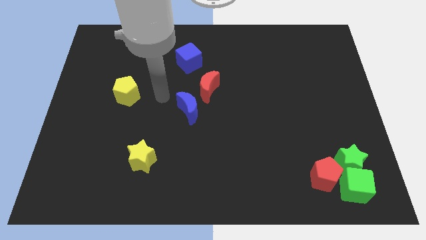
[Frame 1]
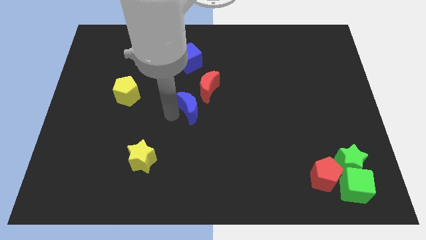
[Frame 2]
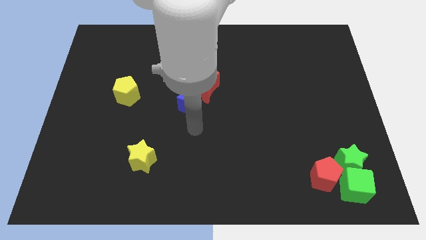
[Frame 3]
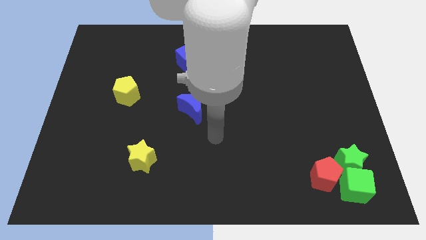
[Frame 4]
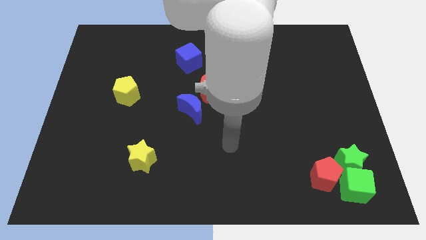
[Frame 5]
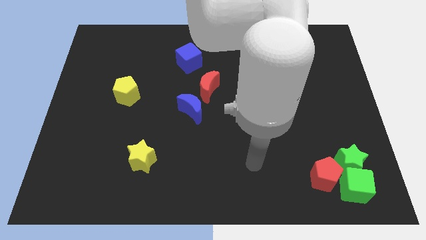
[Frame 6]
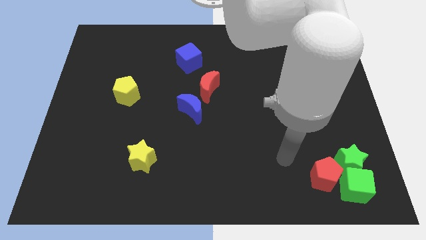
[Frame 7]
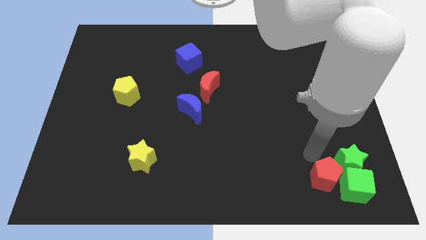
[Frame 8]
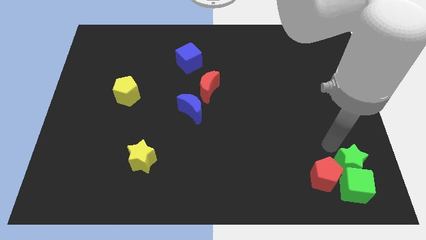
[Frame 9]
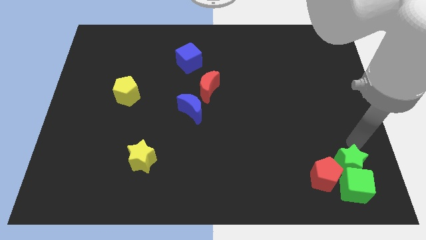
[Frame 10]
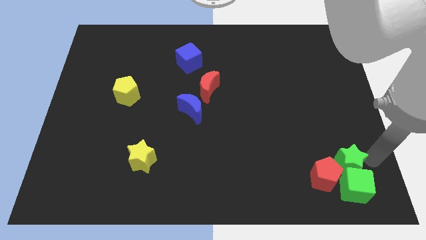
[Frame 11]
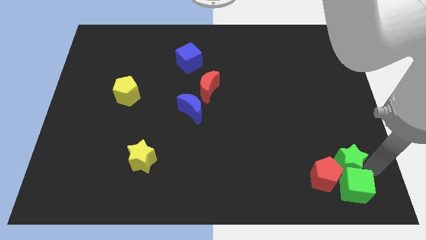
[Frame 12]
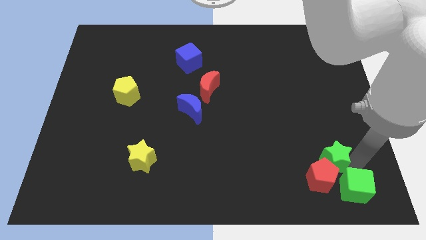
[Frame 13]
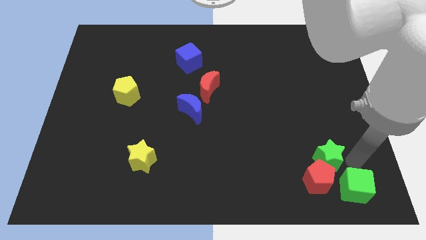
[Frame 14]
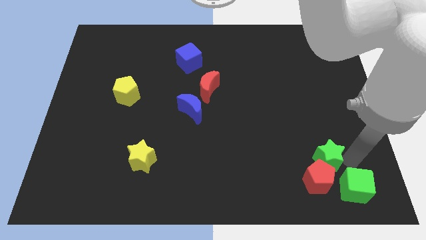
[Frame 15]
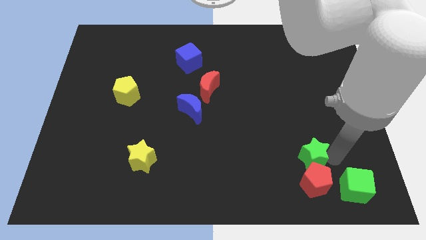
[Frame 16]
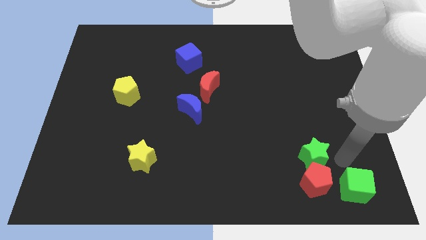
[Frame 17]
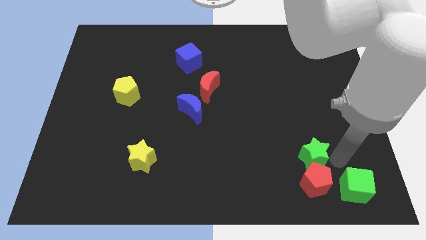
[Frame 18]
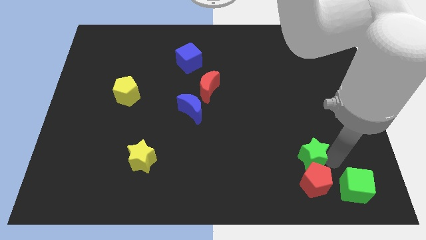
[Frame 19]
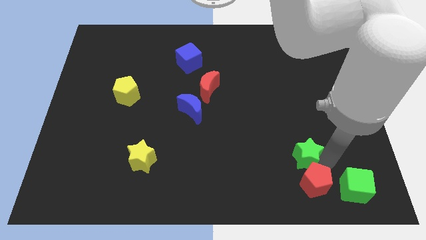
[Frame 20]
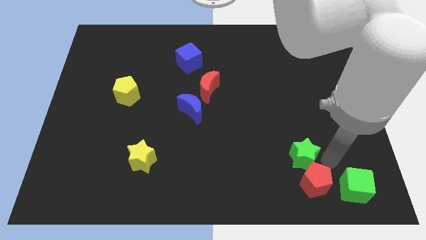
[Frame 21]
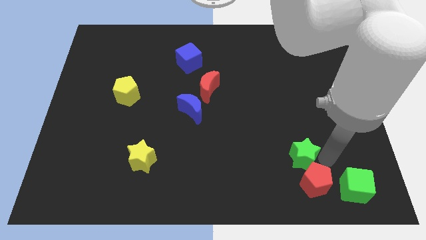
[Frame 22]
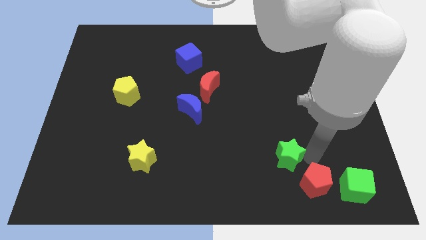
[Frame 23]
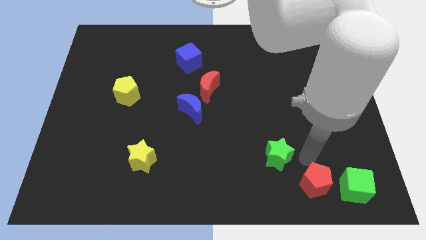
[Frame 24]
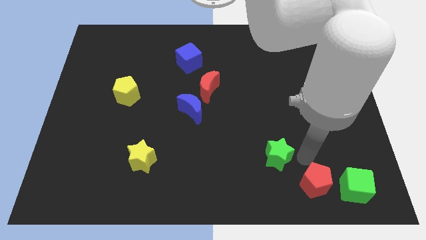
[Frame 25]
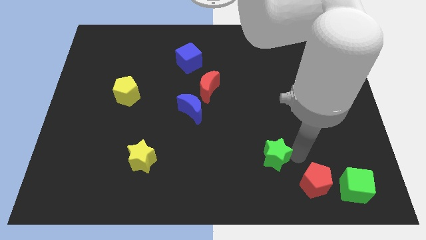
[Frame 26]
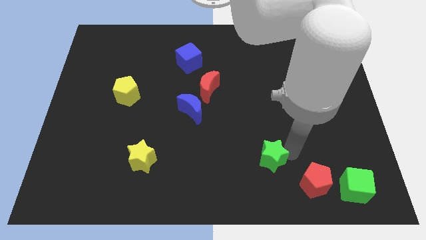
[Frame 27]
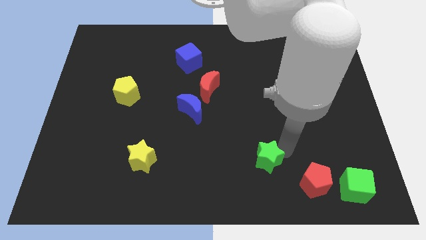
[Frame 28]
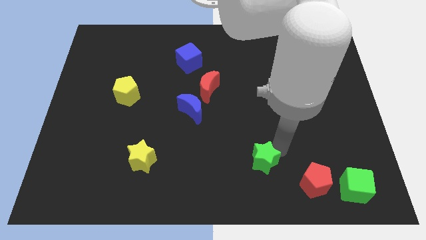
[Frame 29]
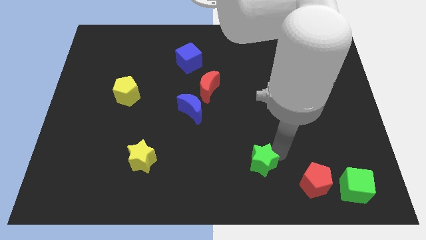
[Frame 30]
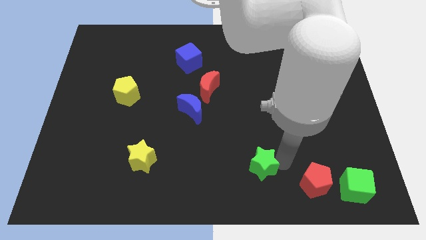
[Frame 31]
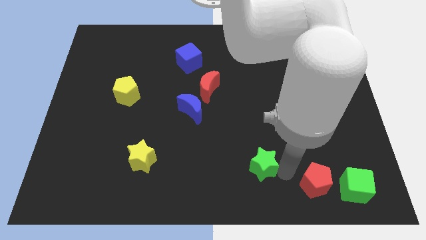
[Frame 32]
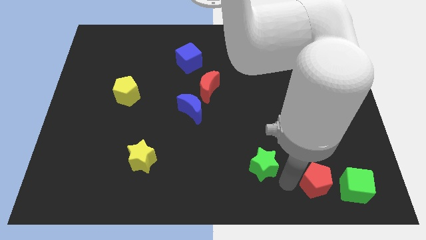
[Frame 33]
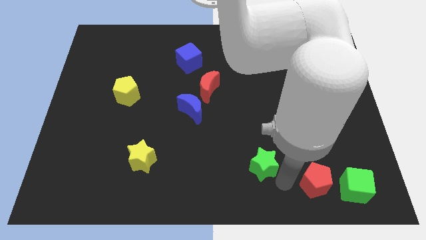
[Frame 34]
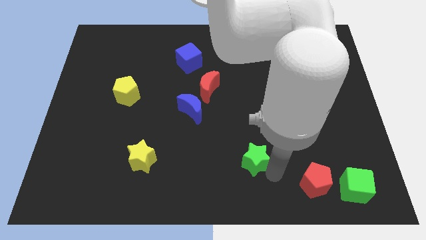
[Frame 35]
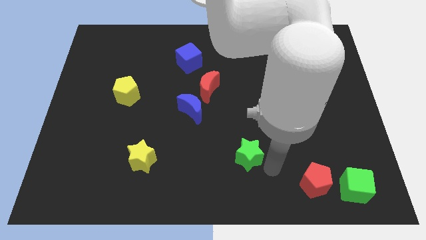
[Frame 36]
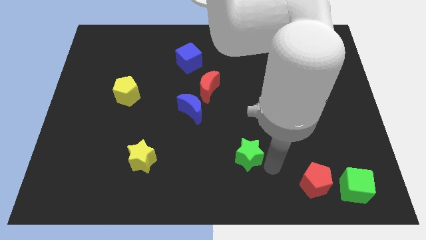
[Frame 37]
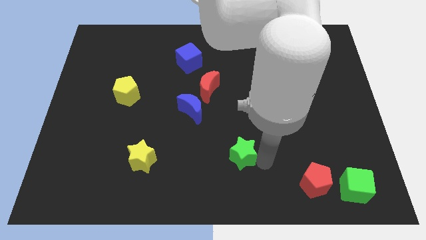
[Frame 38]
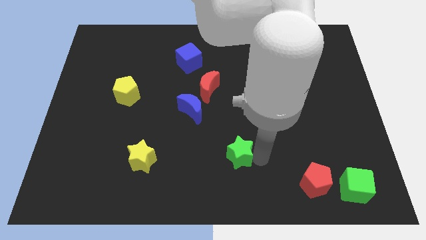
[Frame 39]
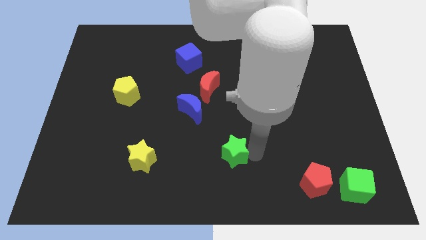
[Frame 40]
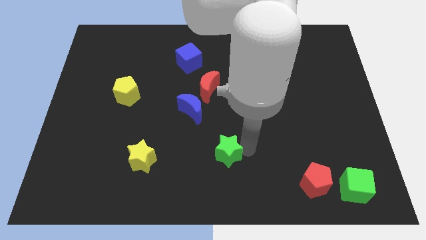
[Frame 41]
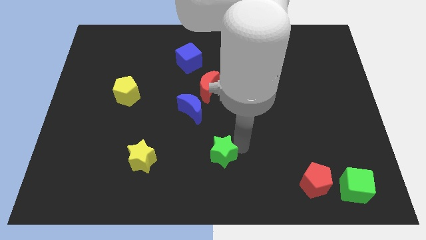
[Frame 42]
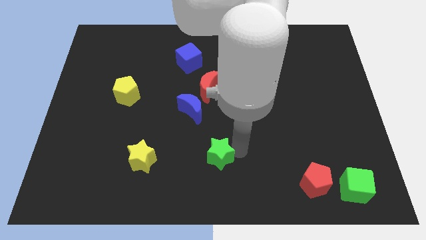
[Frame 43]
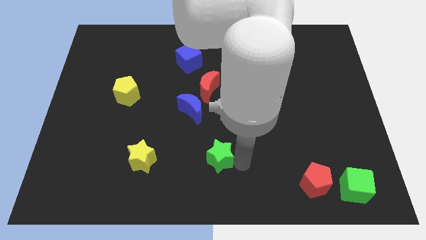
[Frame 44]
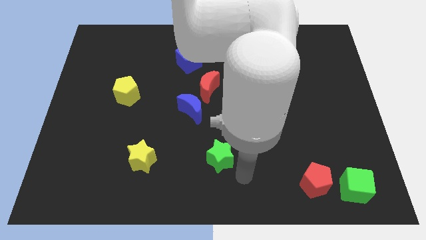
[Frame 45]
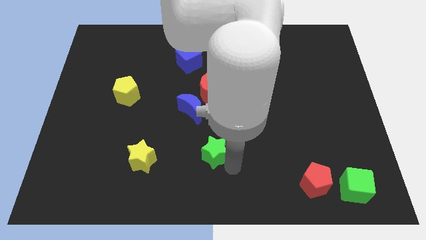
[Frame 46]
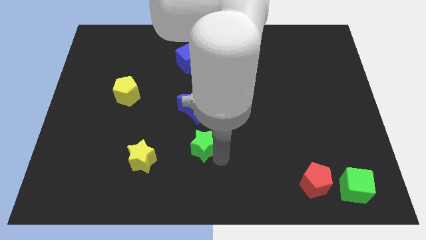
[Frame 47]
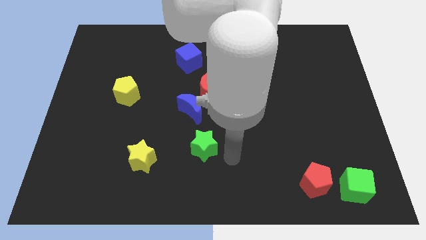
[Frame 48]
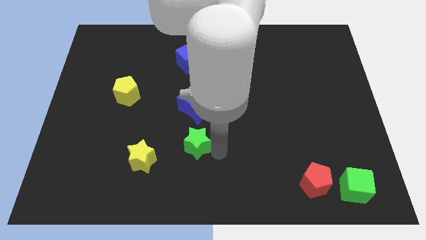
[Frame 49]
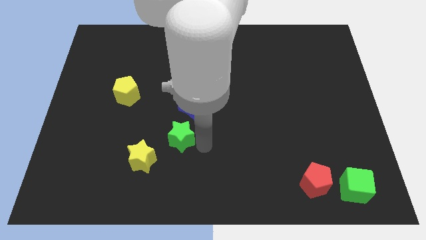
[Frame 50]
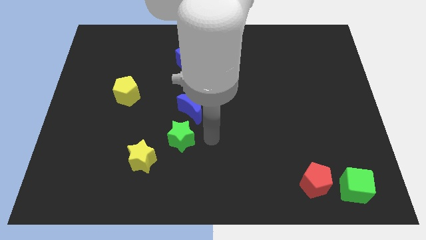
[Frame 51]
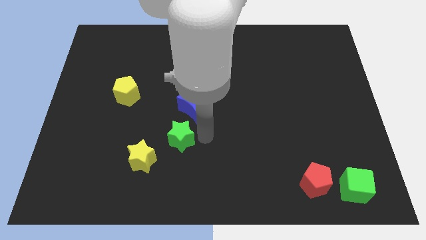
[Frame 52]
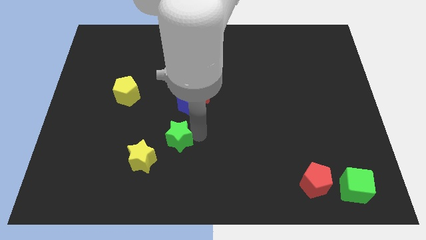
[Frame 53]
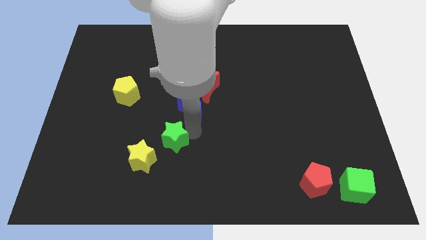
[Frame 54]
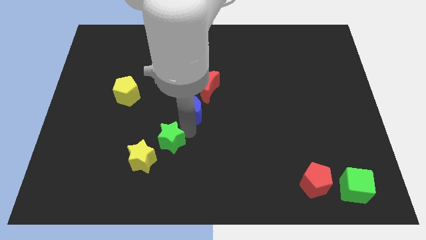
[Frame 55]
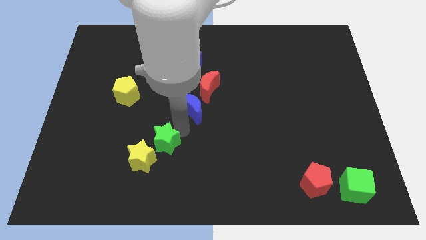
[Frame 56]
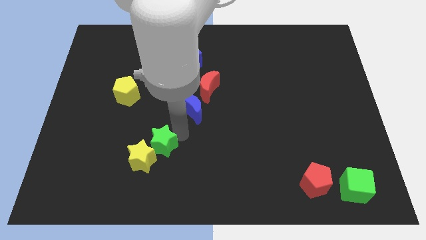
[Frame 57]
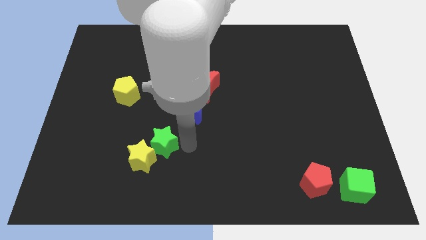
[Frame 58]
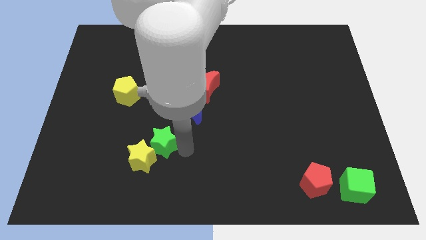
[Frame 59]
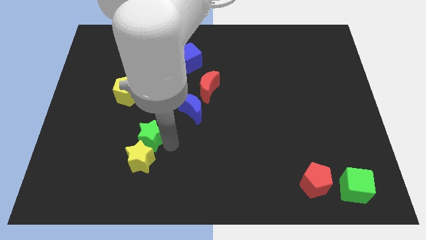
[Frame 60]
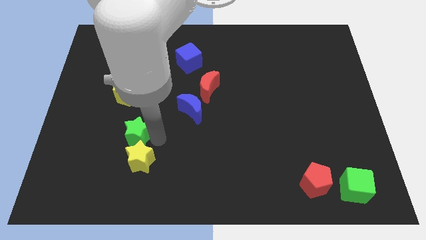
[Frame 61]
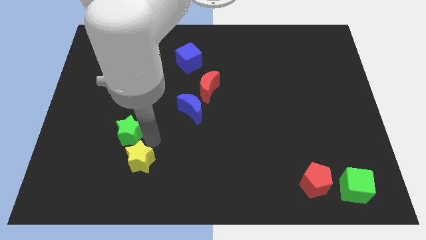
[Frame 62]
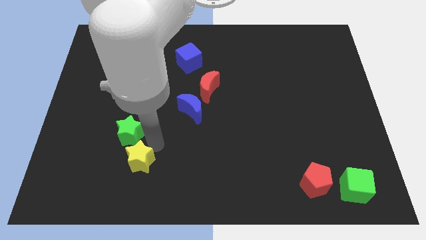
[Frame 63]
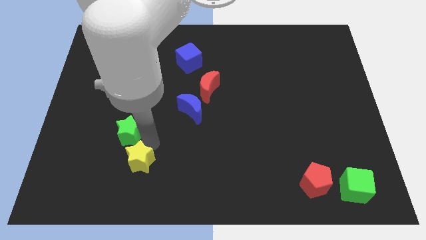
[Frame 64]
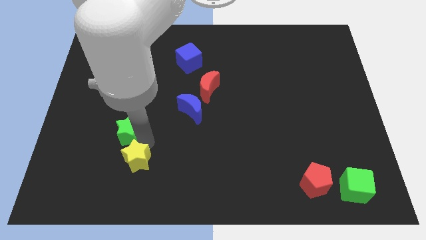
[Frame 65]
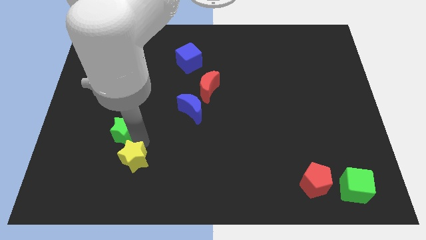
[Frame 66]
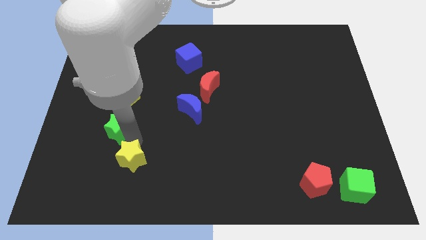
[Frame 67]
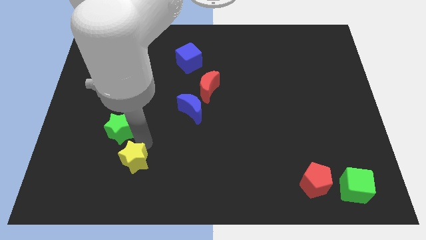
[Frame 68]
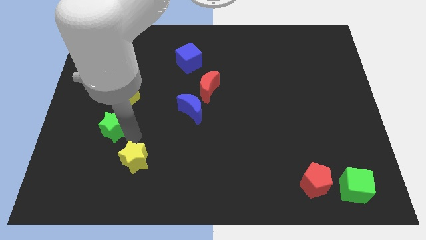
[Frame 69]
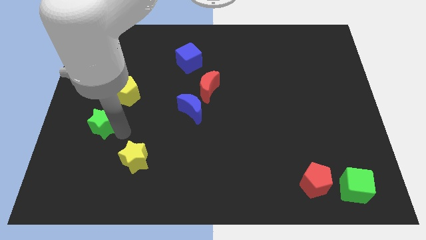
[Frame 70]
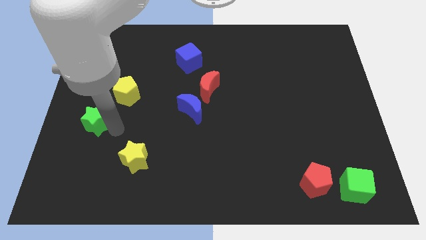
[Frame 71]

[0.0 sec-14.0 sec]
push the green star to the center left
